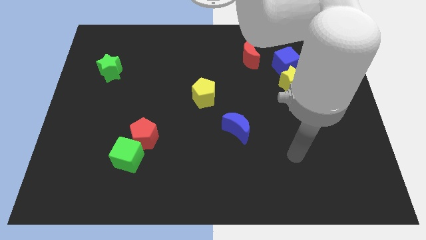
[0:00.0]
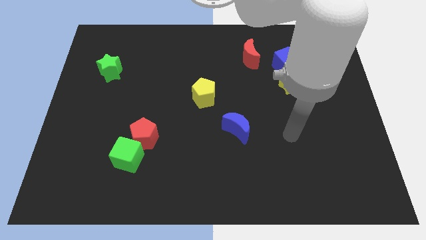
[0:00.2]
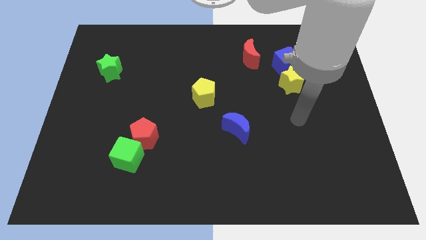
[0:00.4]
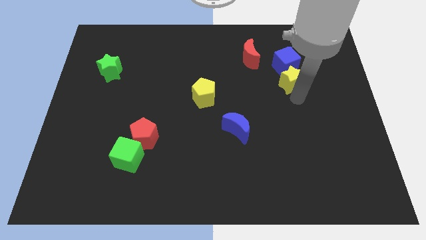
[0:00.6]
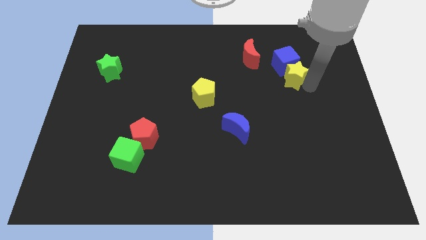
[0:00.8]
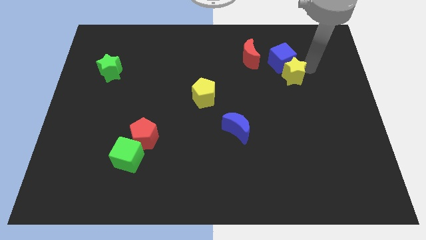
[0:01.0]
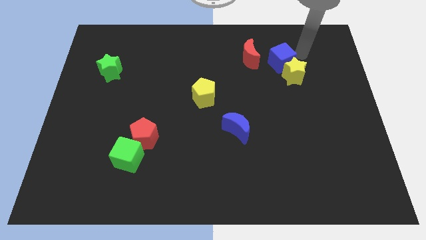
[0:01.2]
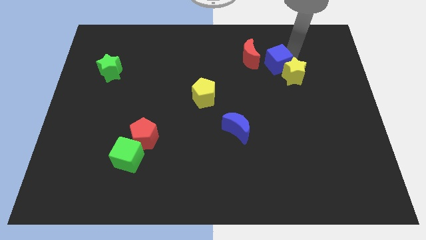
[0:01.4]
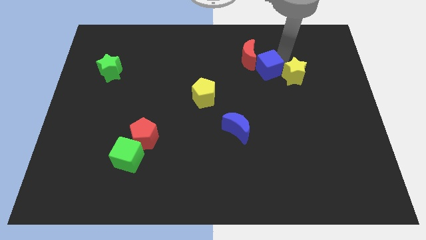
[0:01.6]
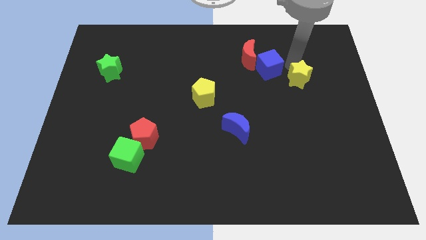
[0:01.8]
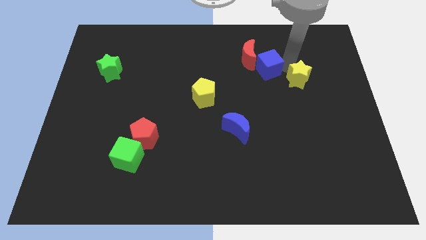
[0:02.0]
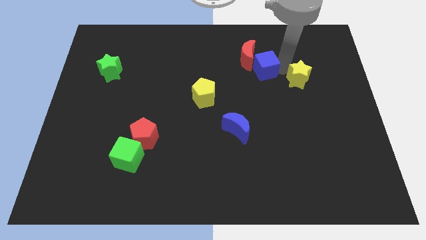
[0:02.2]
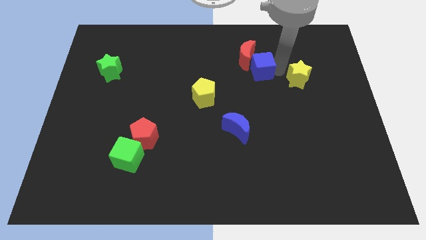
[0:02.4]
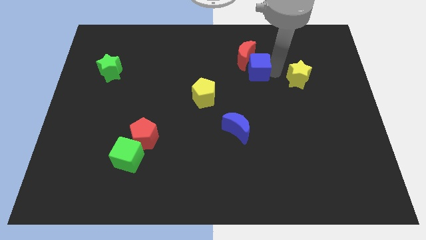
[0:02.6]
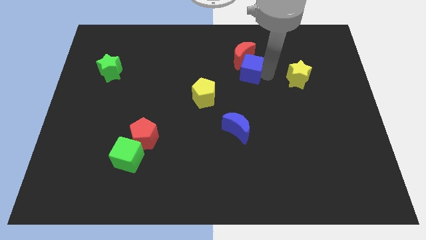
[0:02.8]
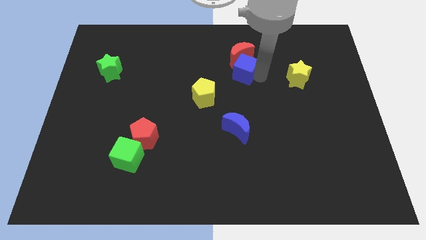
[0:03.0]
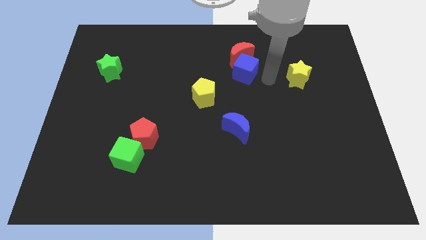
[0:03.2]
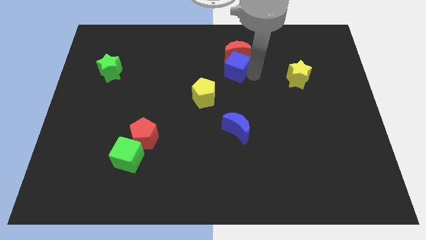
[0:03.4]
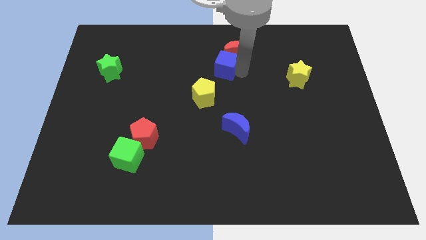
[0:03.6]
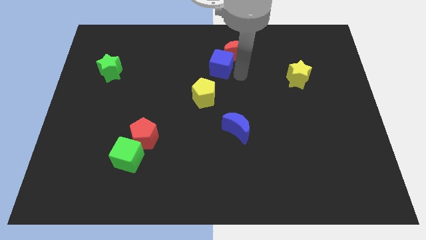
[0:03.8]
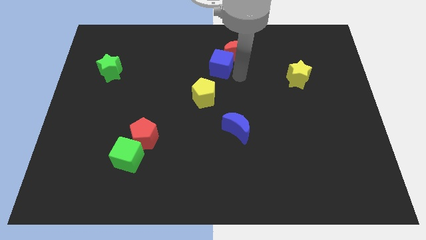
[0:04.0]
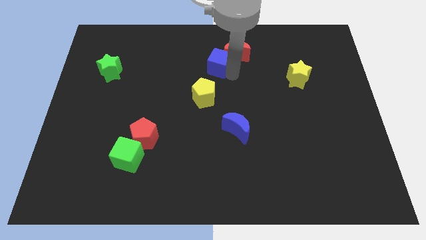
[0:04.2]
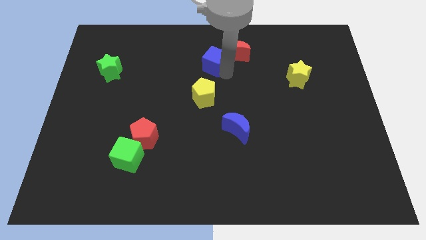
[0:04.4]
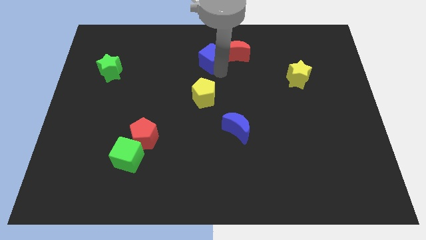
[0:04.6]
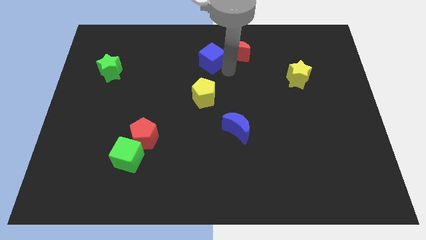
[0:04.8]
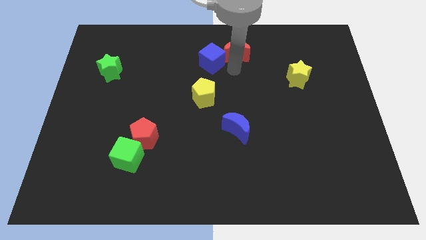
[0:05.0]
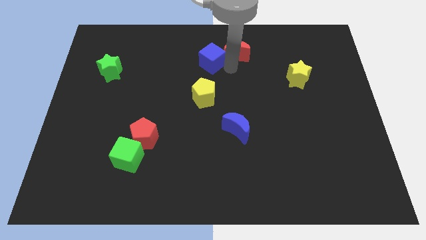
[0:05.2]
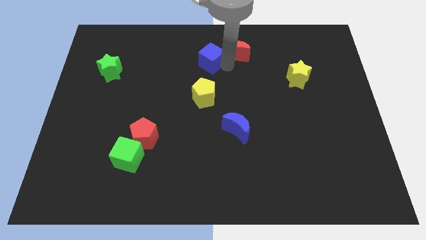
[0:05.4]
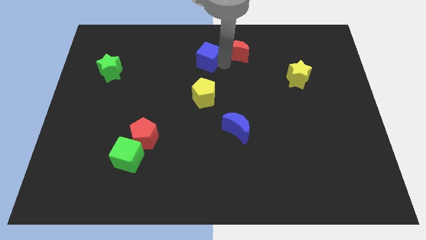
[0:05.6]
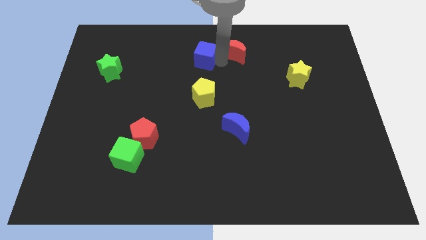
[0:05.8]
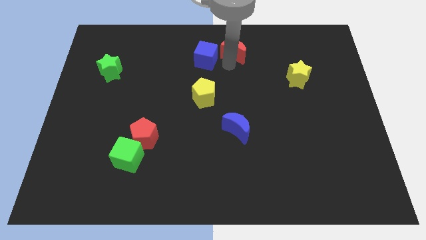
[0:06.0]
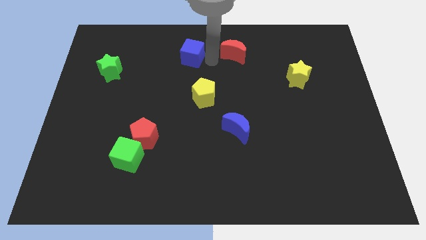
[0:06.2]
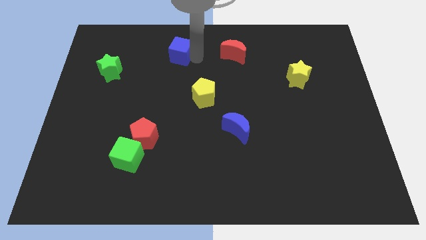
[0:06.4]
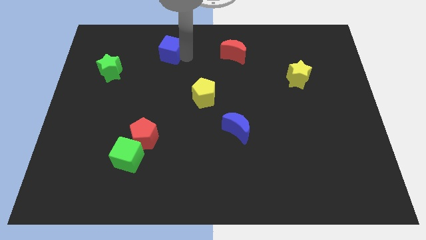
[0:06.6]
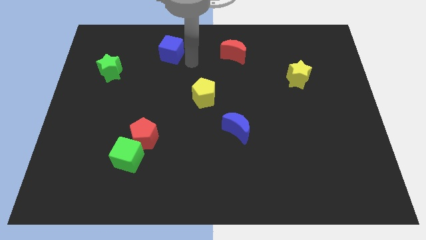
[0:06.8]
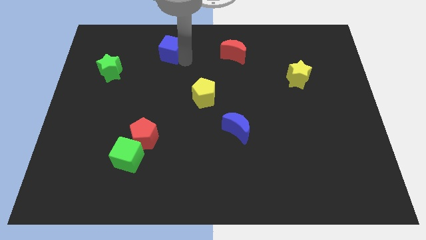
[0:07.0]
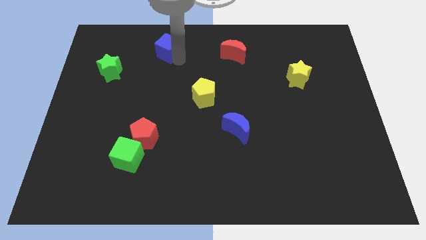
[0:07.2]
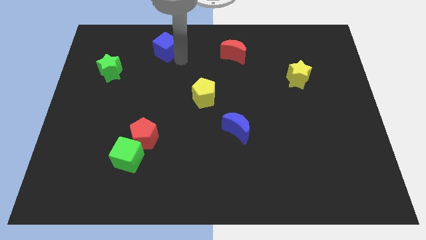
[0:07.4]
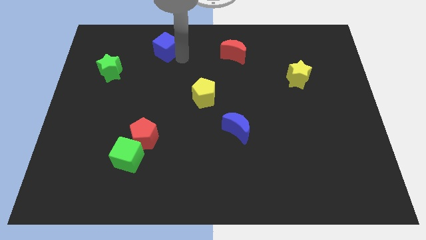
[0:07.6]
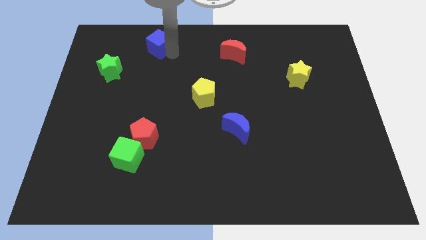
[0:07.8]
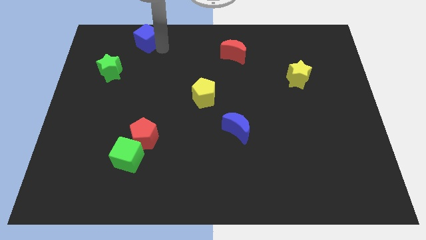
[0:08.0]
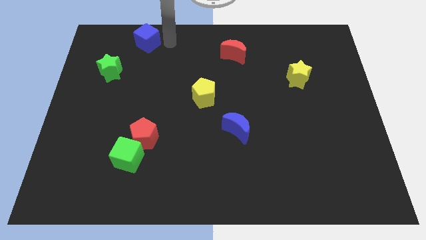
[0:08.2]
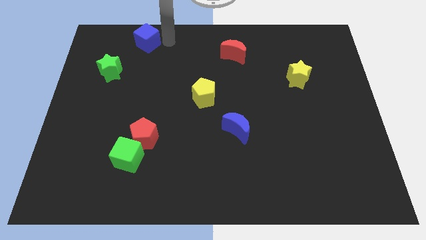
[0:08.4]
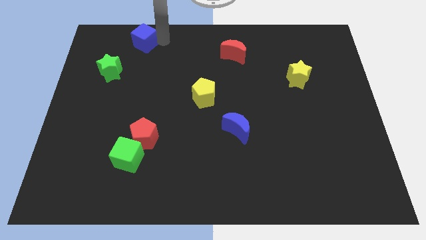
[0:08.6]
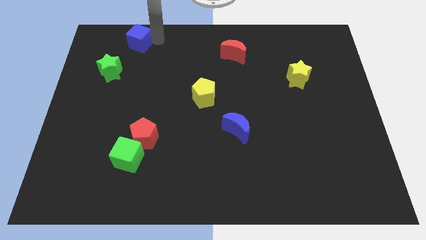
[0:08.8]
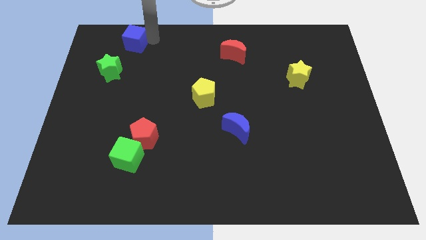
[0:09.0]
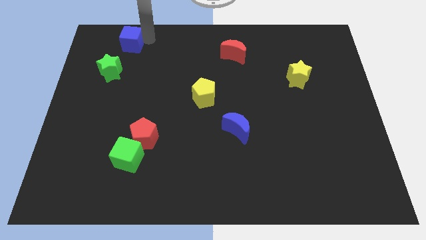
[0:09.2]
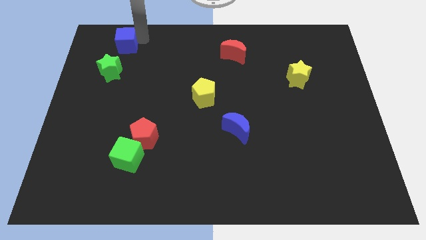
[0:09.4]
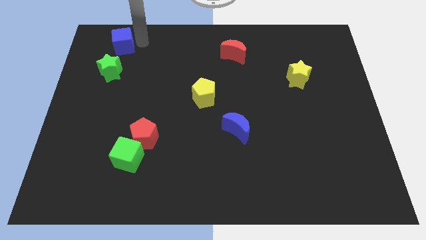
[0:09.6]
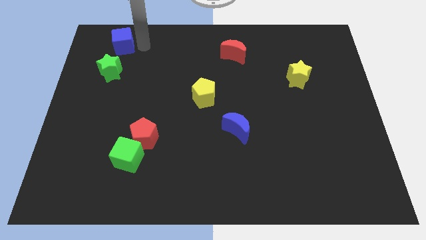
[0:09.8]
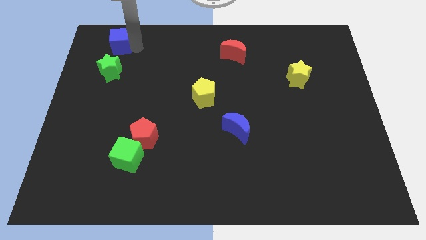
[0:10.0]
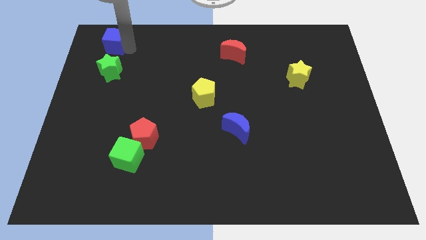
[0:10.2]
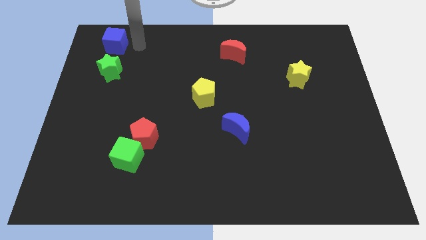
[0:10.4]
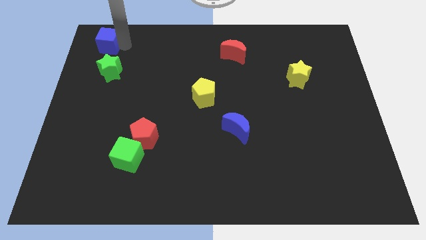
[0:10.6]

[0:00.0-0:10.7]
slide the blue cube to the top left of the board

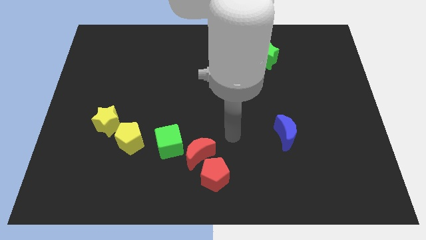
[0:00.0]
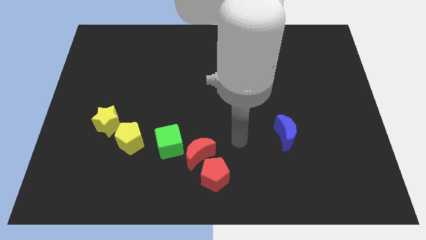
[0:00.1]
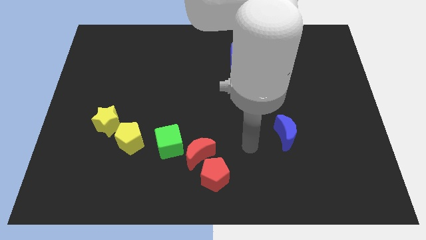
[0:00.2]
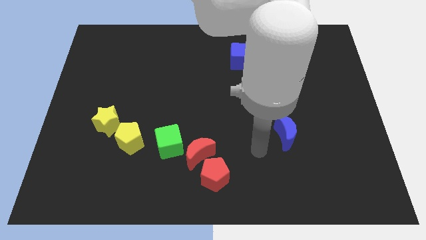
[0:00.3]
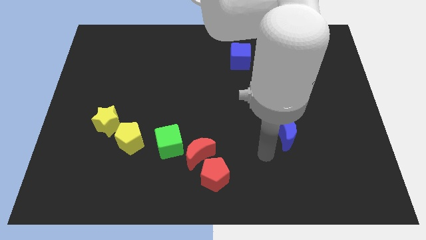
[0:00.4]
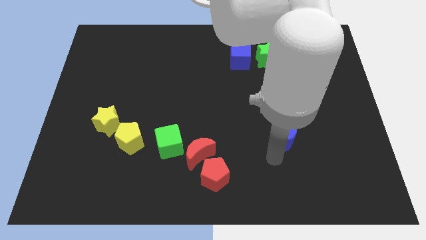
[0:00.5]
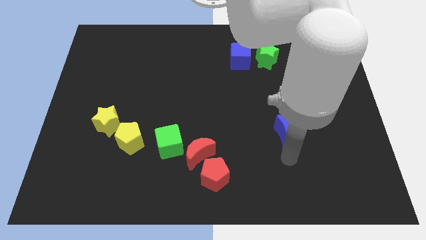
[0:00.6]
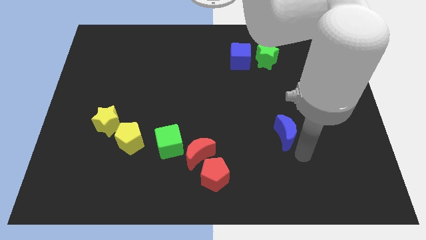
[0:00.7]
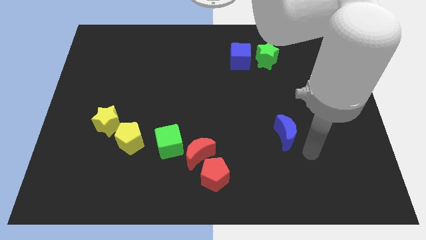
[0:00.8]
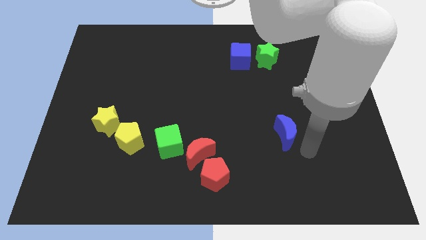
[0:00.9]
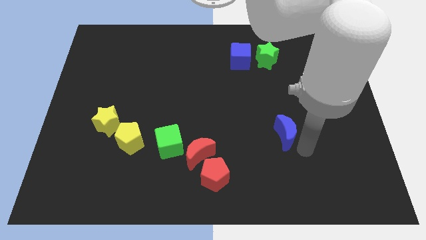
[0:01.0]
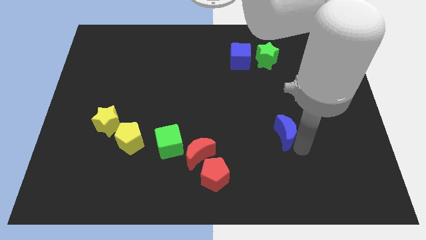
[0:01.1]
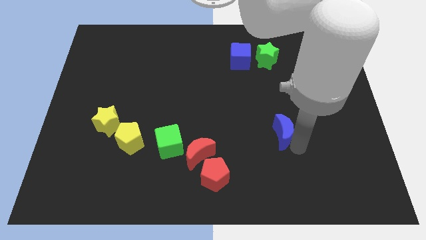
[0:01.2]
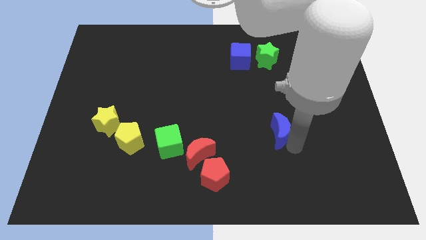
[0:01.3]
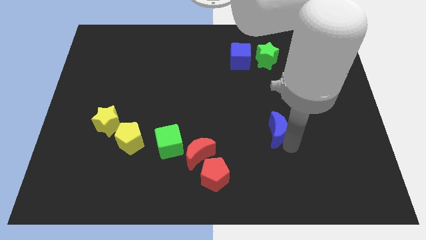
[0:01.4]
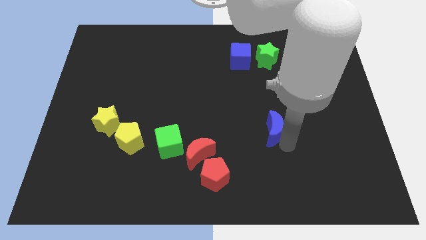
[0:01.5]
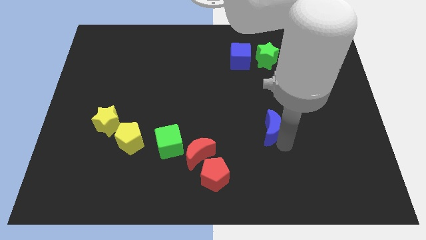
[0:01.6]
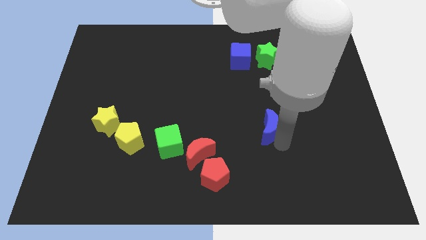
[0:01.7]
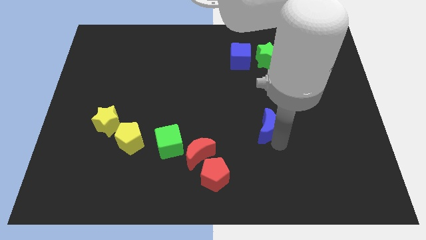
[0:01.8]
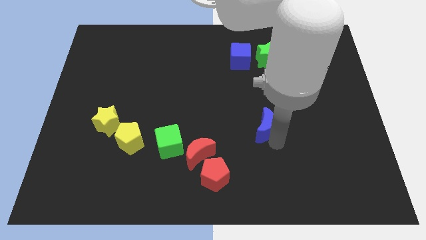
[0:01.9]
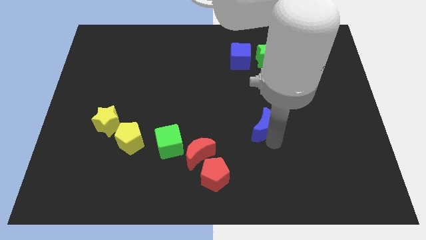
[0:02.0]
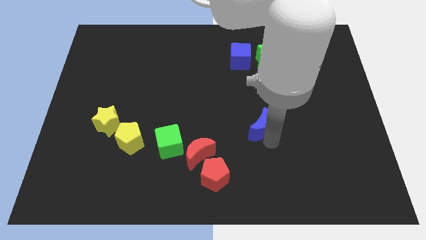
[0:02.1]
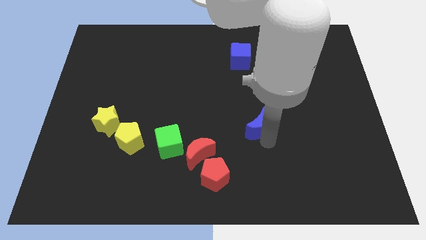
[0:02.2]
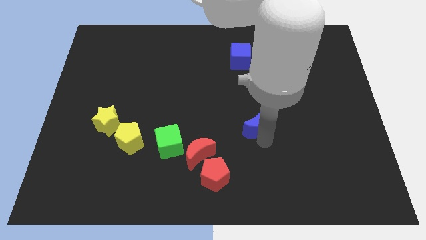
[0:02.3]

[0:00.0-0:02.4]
slide the blue moon to the middle
